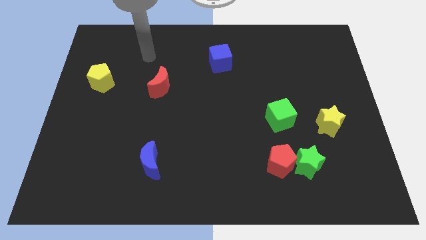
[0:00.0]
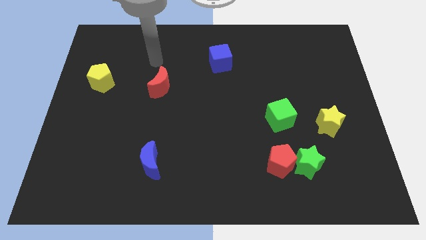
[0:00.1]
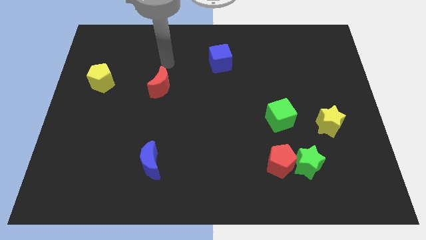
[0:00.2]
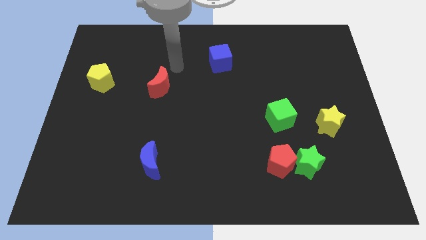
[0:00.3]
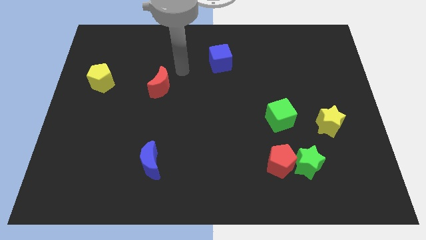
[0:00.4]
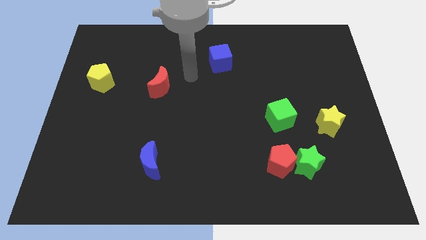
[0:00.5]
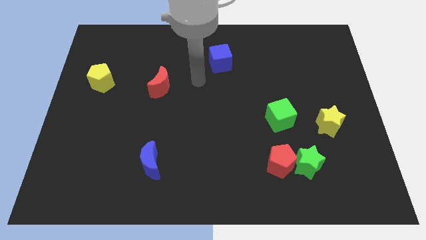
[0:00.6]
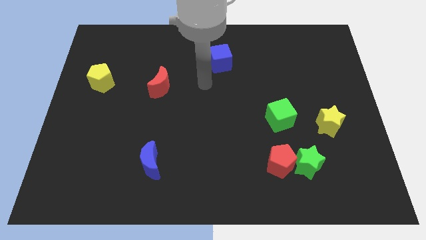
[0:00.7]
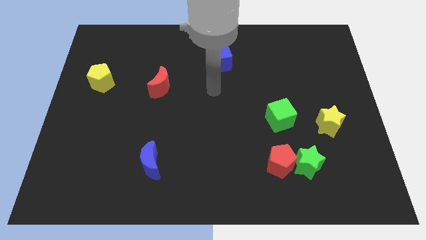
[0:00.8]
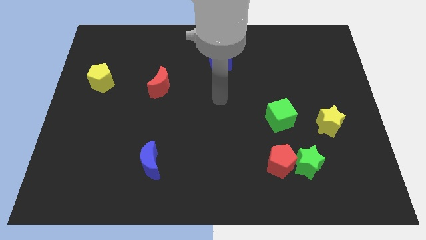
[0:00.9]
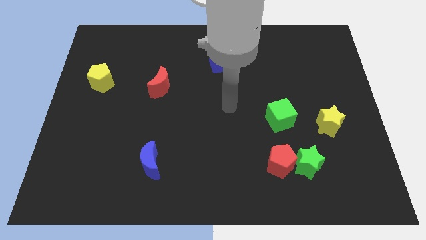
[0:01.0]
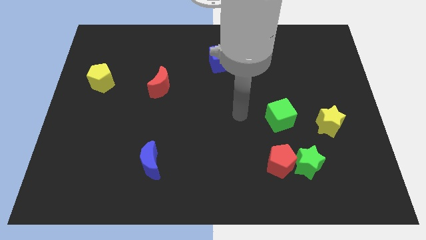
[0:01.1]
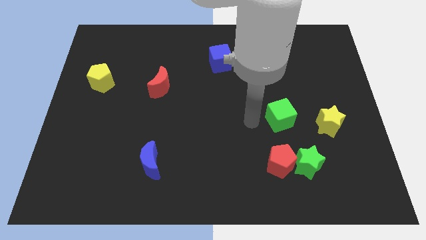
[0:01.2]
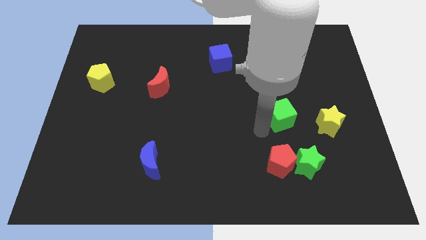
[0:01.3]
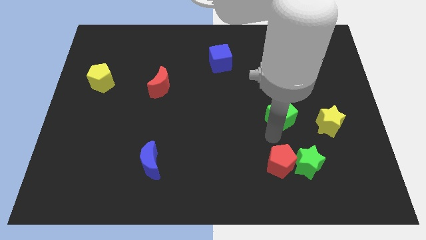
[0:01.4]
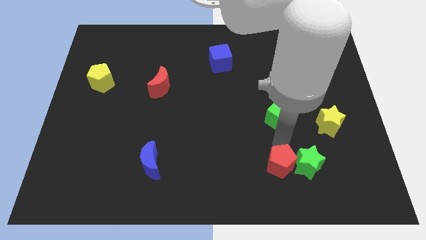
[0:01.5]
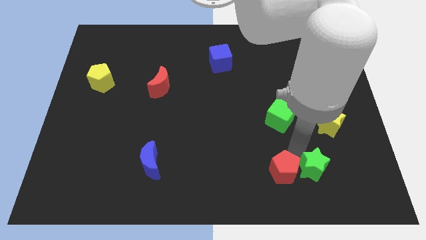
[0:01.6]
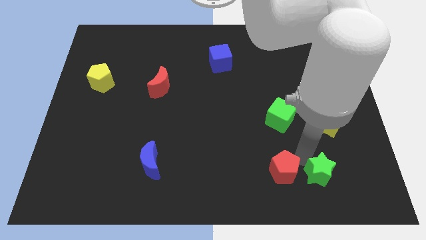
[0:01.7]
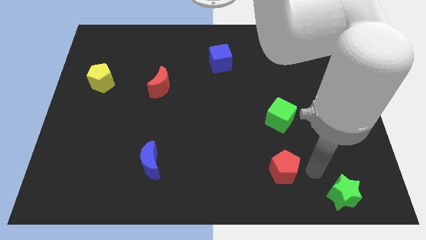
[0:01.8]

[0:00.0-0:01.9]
move the red pentagon away from the green star

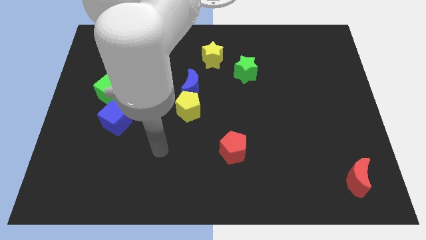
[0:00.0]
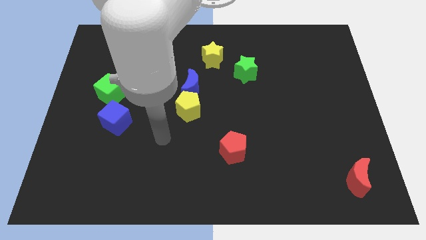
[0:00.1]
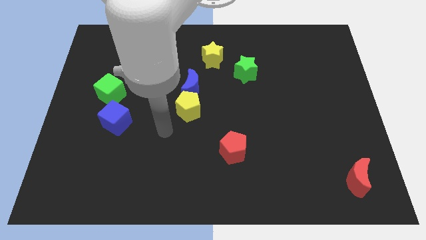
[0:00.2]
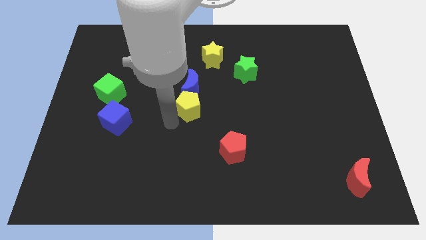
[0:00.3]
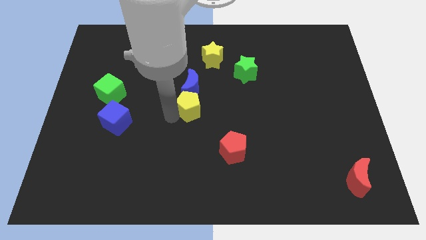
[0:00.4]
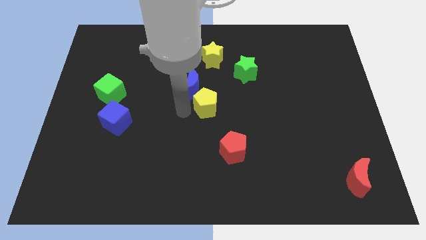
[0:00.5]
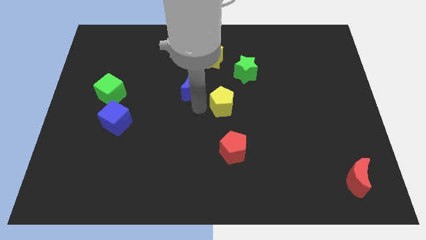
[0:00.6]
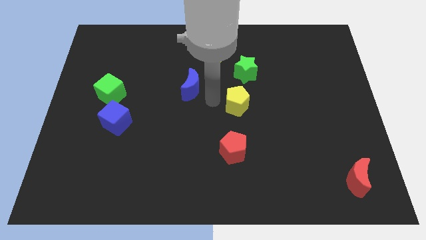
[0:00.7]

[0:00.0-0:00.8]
separate the blue moon from the yellow pentagon

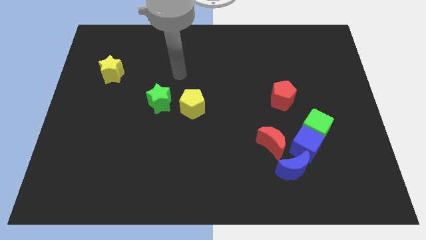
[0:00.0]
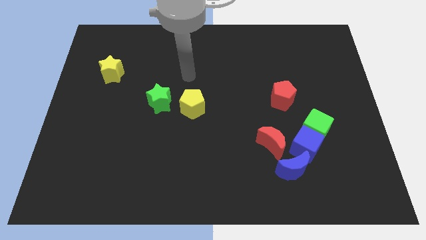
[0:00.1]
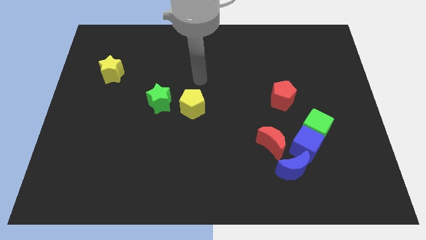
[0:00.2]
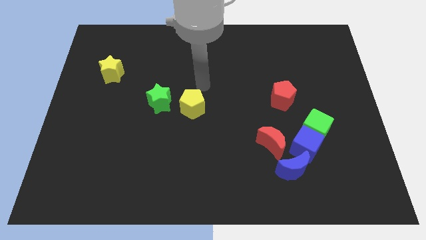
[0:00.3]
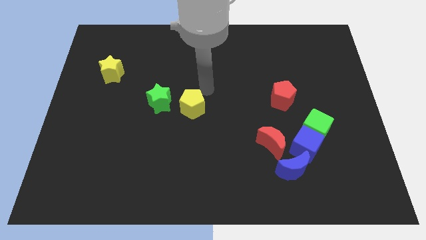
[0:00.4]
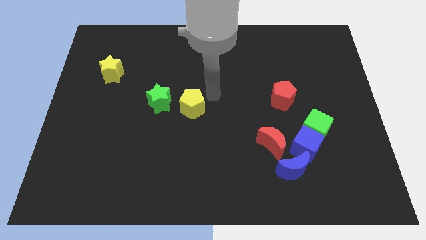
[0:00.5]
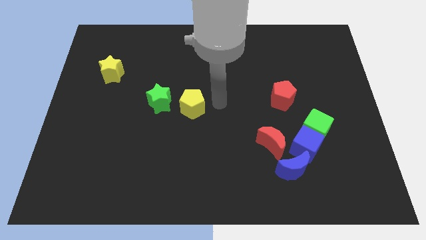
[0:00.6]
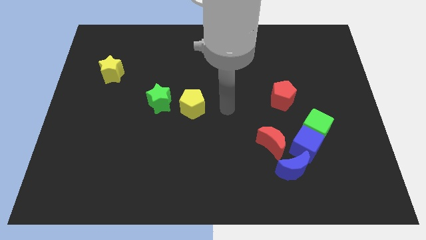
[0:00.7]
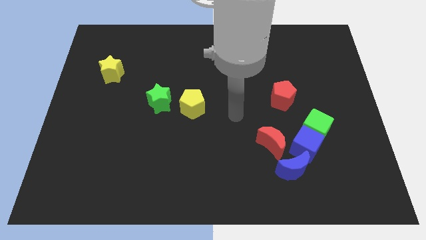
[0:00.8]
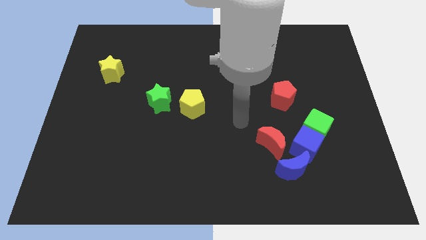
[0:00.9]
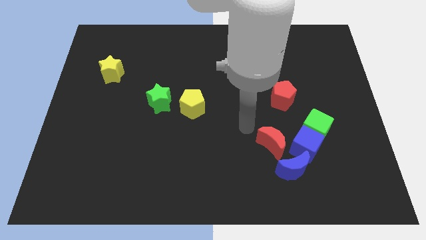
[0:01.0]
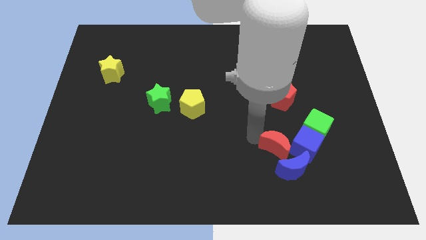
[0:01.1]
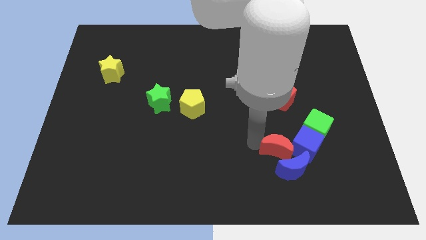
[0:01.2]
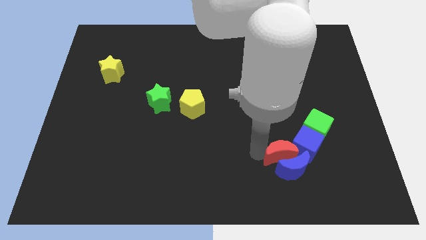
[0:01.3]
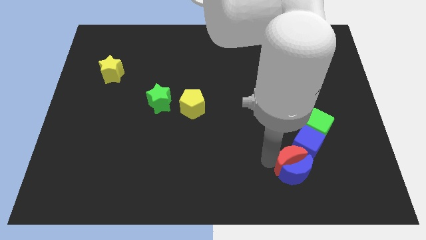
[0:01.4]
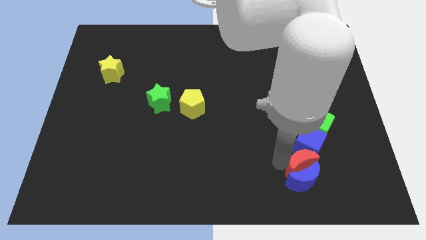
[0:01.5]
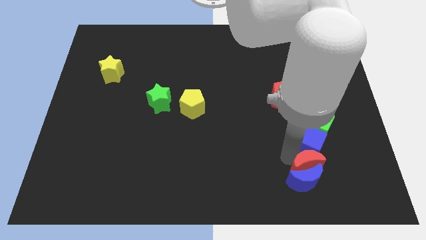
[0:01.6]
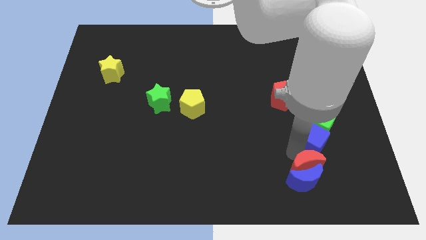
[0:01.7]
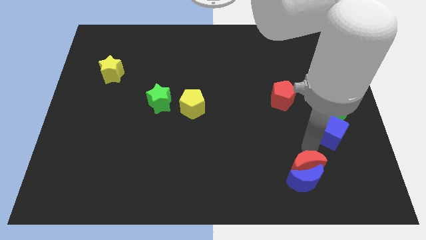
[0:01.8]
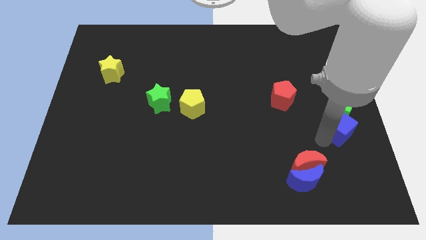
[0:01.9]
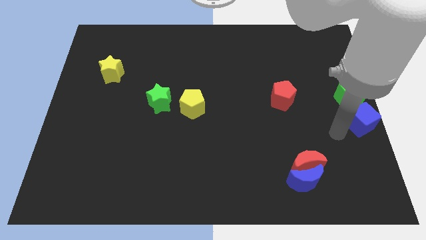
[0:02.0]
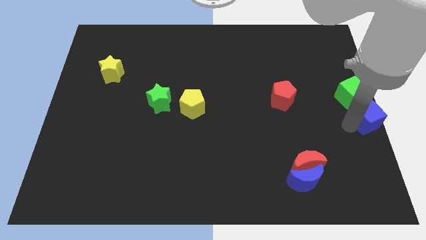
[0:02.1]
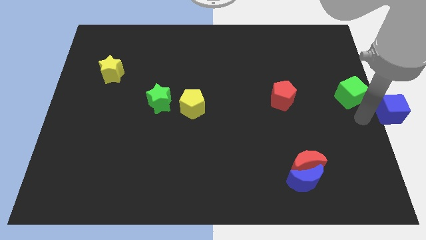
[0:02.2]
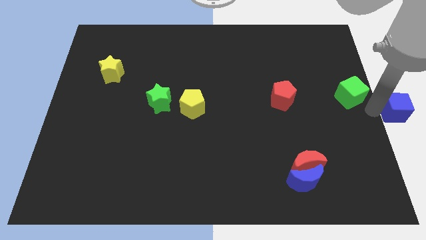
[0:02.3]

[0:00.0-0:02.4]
separate the green cube from the blue cube

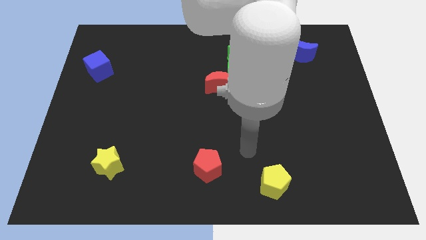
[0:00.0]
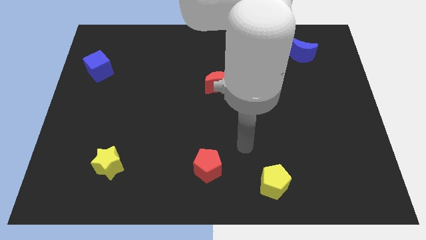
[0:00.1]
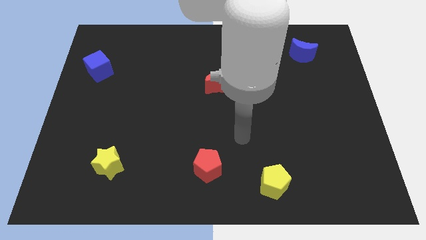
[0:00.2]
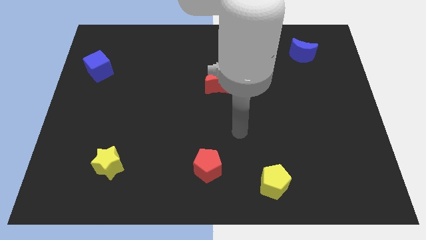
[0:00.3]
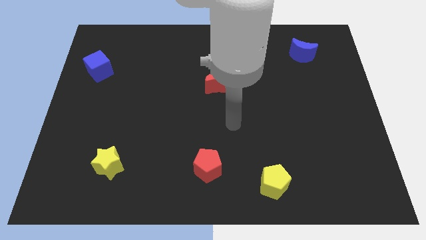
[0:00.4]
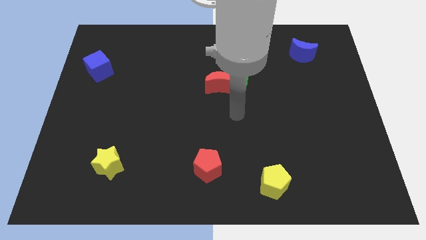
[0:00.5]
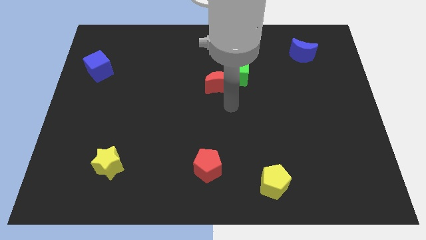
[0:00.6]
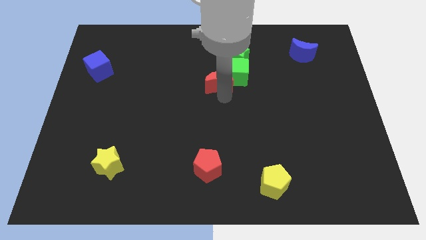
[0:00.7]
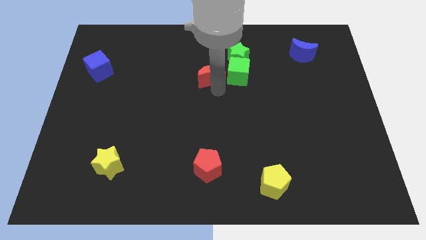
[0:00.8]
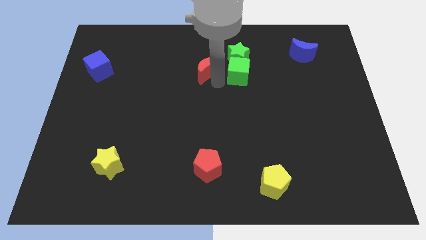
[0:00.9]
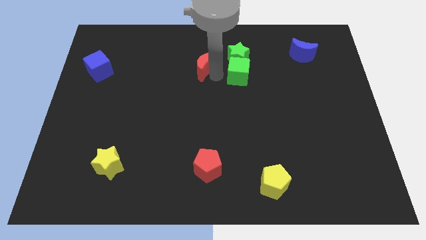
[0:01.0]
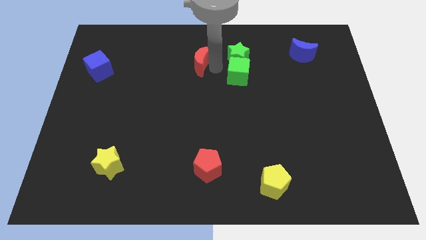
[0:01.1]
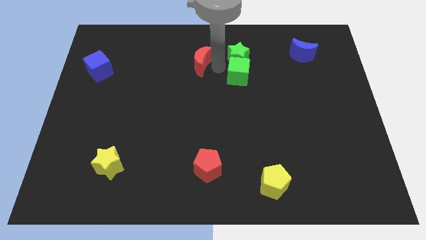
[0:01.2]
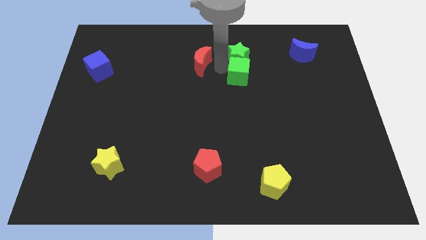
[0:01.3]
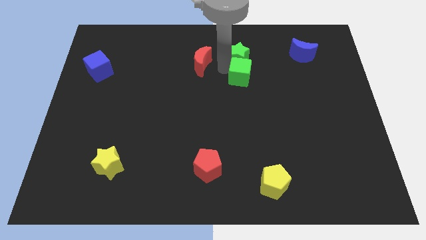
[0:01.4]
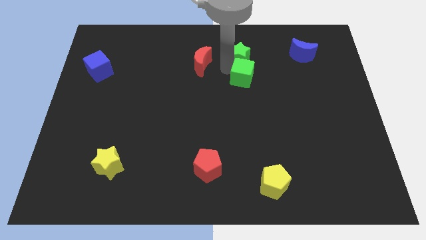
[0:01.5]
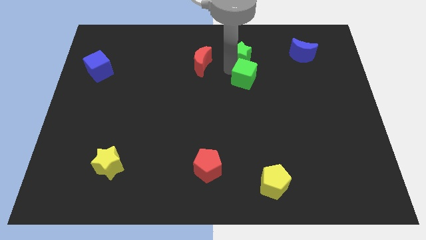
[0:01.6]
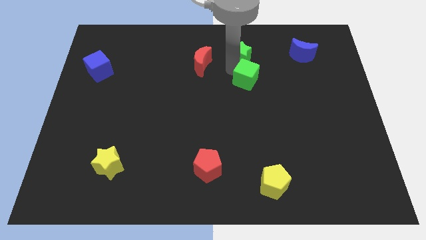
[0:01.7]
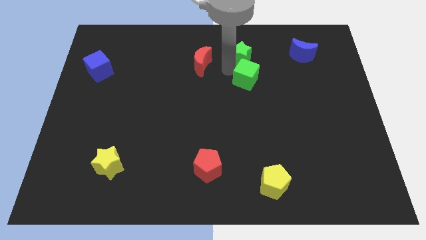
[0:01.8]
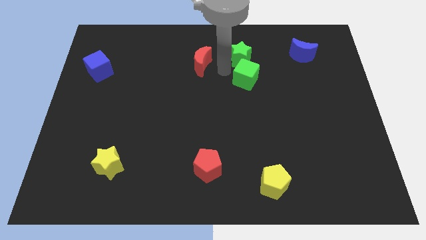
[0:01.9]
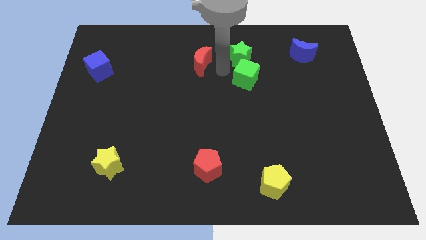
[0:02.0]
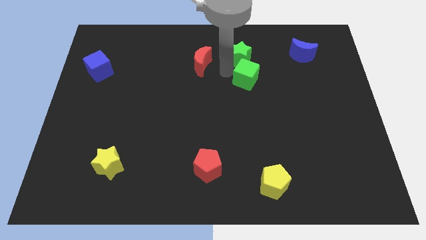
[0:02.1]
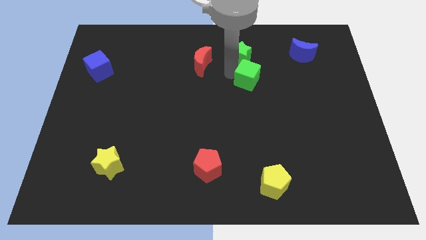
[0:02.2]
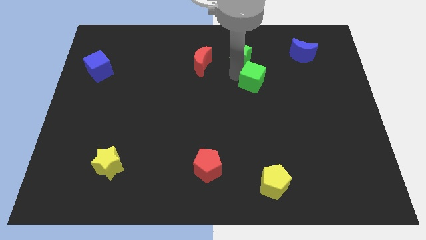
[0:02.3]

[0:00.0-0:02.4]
pull the green cube apart from the green star and red moon

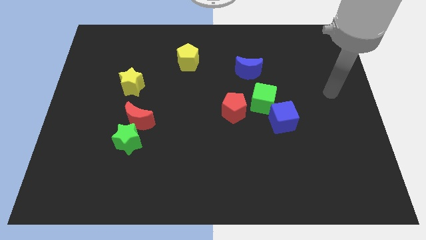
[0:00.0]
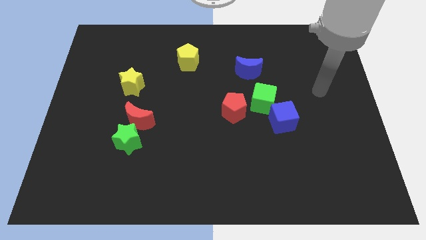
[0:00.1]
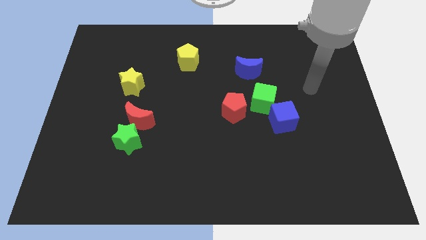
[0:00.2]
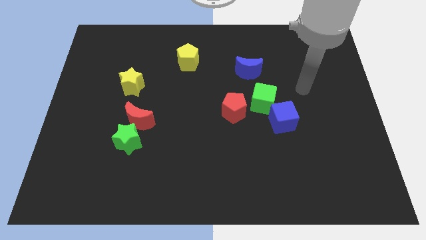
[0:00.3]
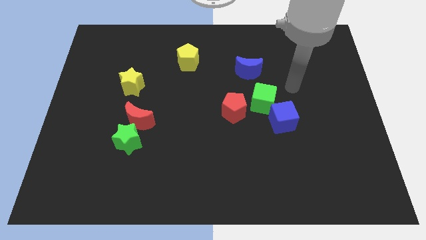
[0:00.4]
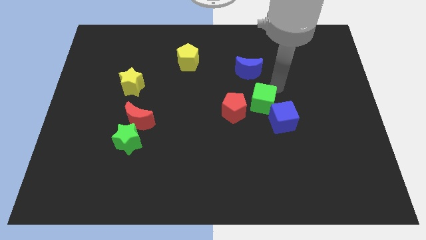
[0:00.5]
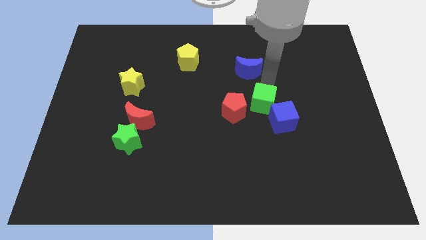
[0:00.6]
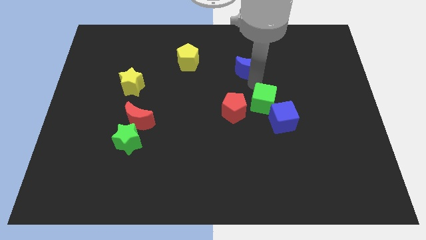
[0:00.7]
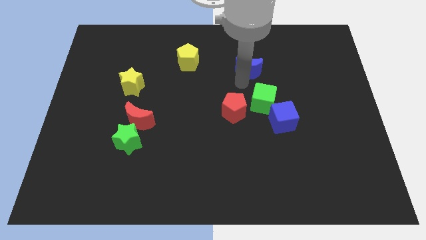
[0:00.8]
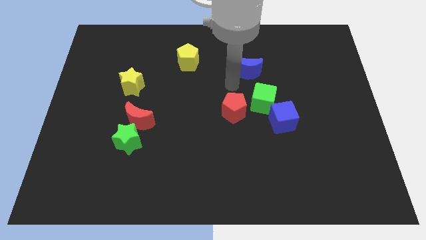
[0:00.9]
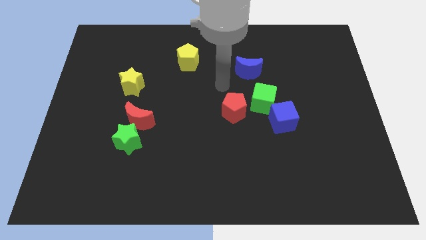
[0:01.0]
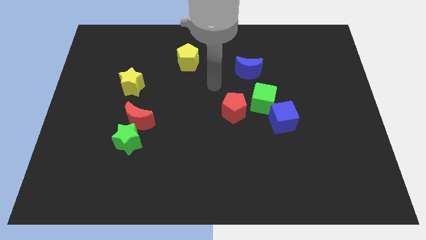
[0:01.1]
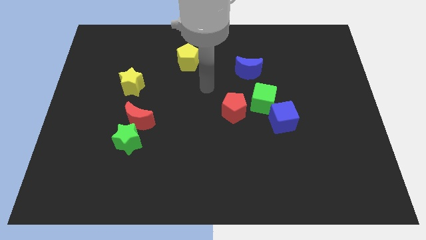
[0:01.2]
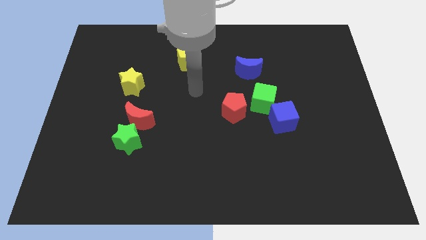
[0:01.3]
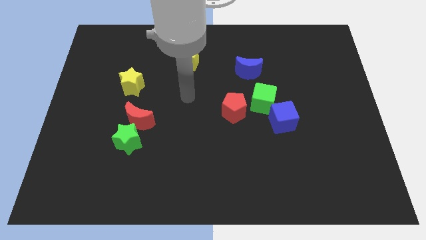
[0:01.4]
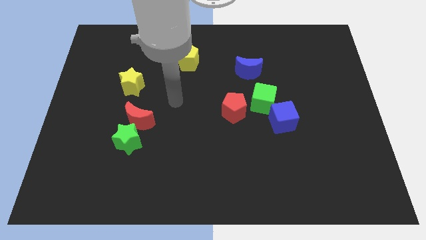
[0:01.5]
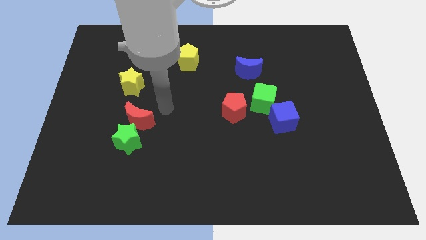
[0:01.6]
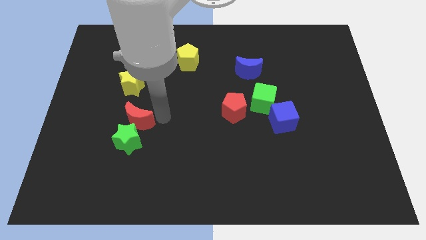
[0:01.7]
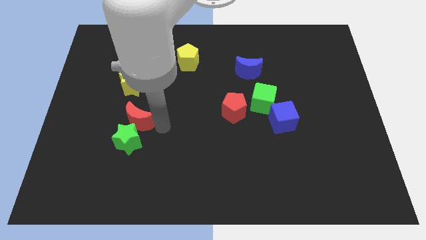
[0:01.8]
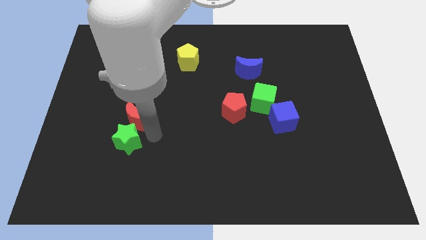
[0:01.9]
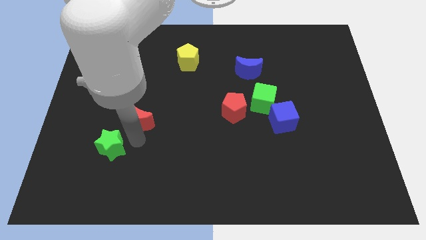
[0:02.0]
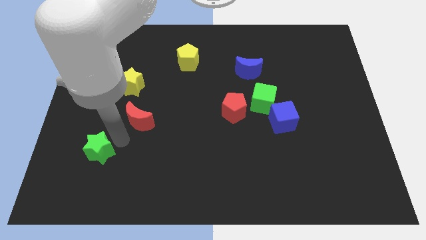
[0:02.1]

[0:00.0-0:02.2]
move the red moon away from the green star
